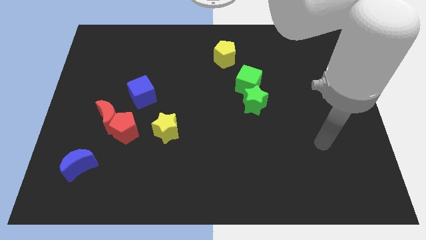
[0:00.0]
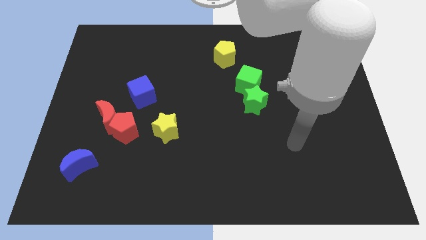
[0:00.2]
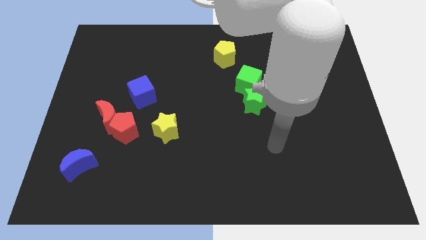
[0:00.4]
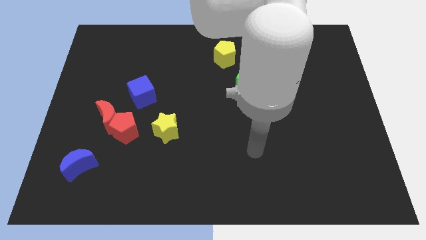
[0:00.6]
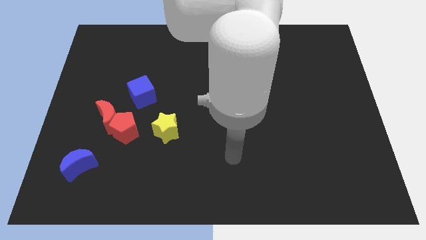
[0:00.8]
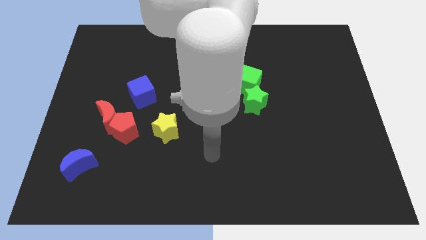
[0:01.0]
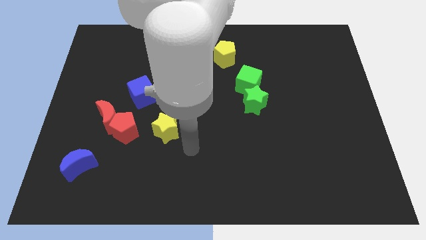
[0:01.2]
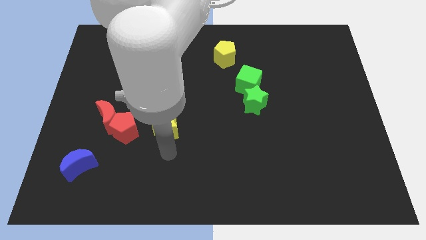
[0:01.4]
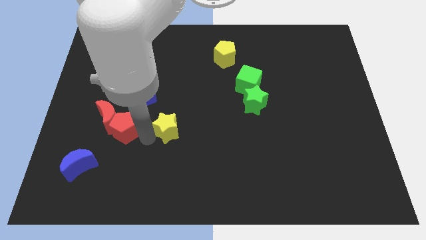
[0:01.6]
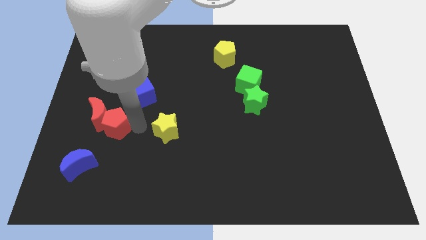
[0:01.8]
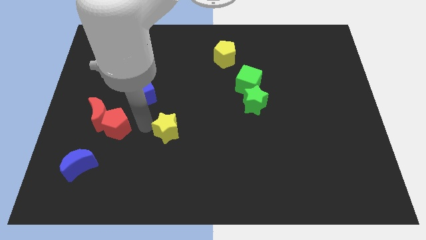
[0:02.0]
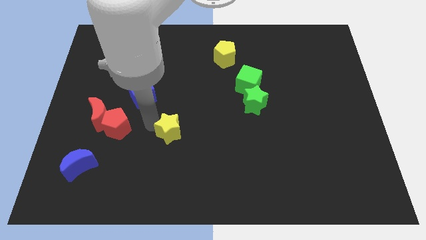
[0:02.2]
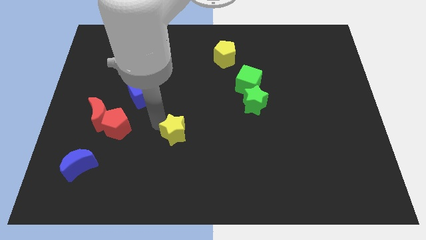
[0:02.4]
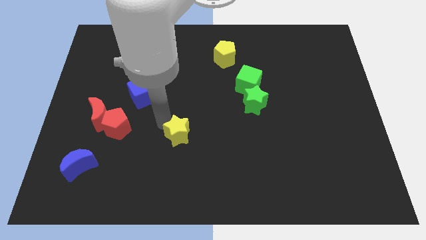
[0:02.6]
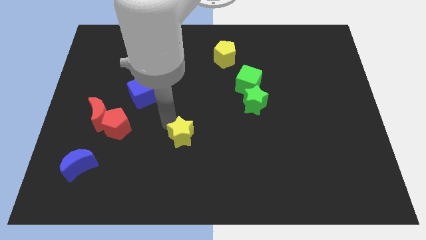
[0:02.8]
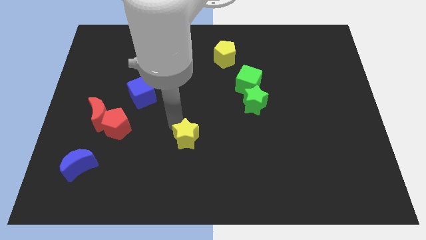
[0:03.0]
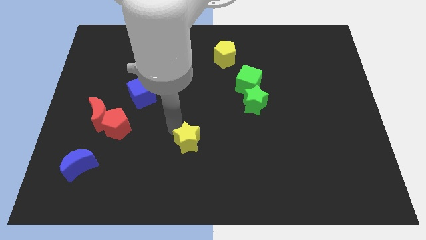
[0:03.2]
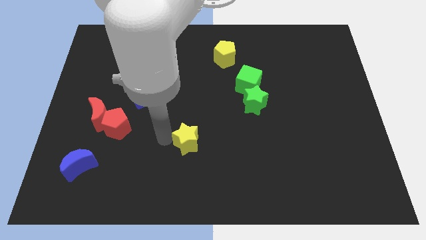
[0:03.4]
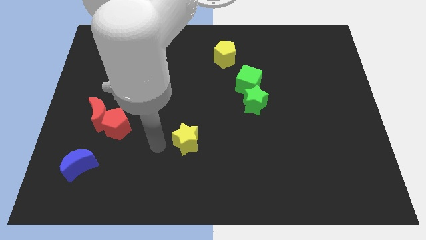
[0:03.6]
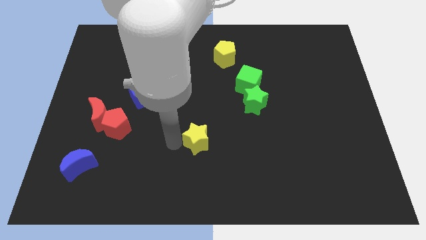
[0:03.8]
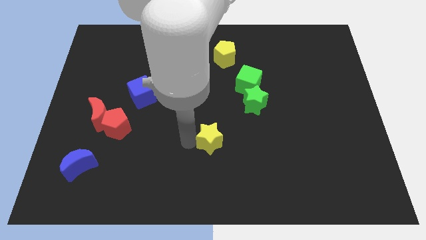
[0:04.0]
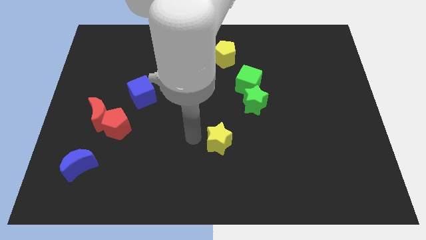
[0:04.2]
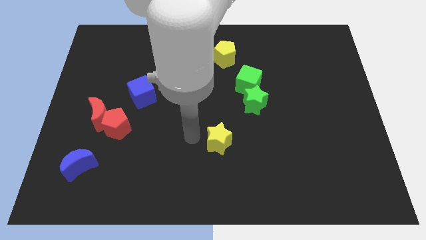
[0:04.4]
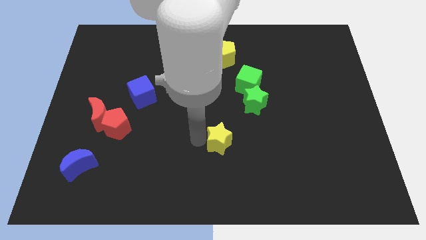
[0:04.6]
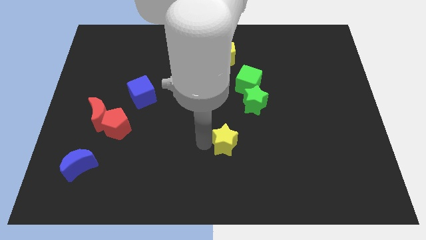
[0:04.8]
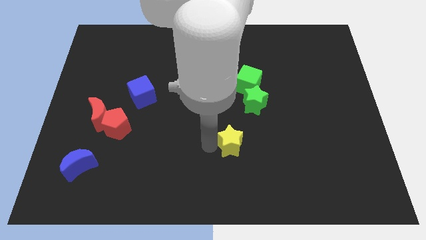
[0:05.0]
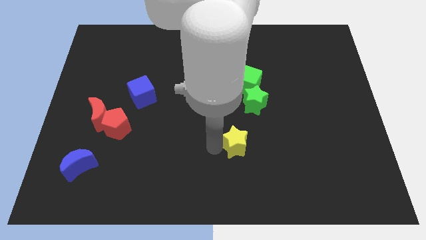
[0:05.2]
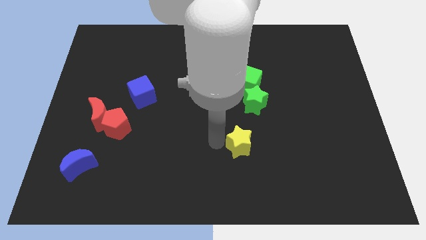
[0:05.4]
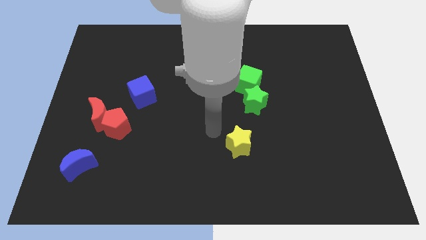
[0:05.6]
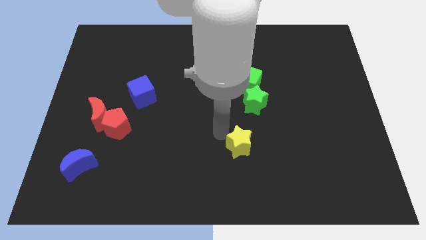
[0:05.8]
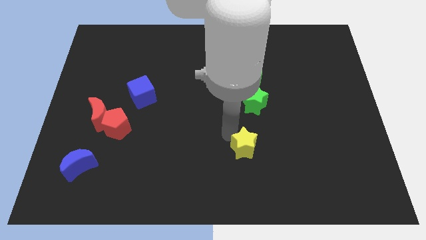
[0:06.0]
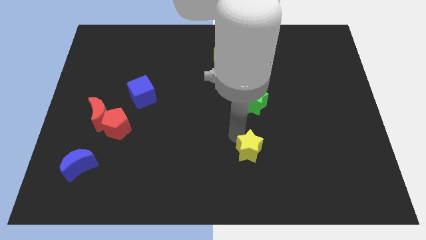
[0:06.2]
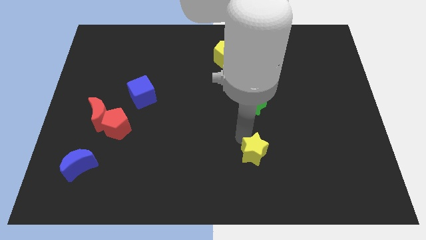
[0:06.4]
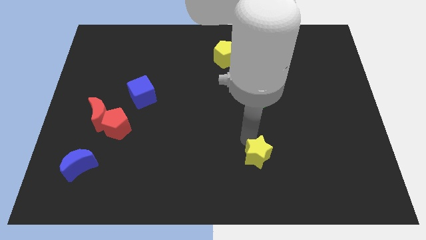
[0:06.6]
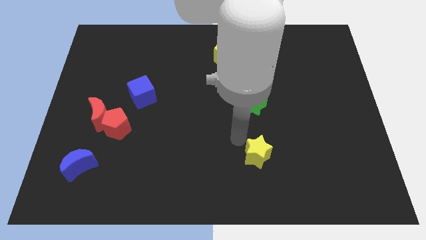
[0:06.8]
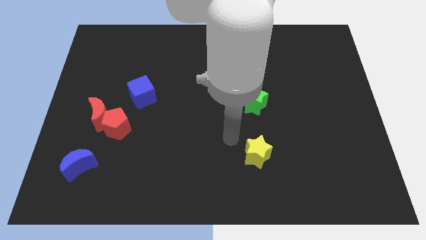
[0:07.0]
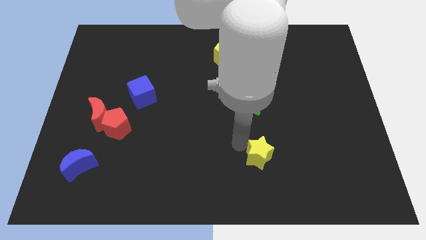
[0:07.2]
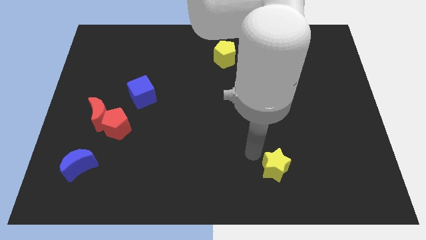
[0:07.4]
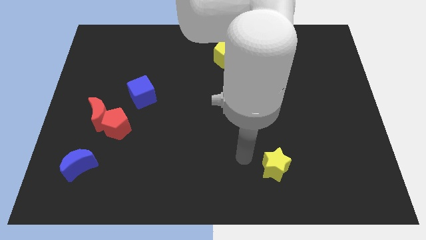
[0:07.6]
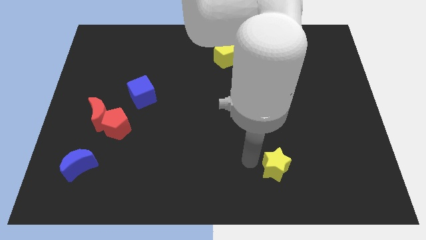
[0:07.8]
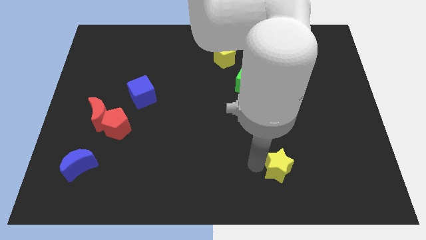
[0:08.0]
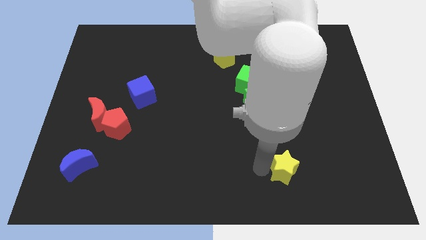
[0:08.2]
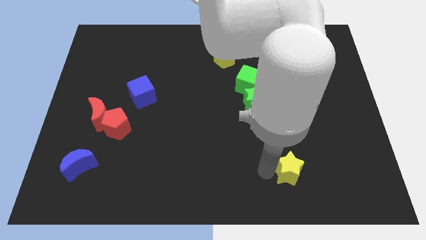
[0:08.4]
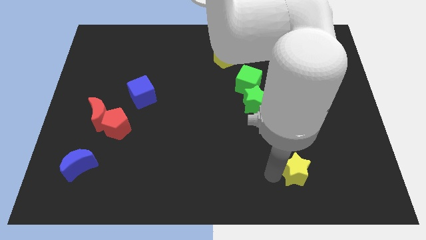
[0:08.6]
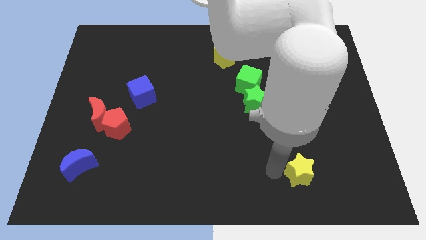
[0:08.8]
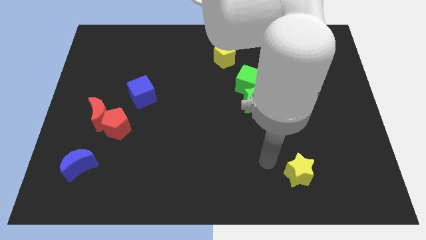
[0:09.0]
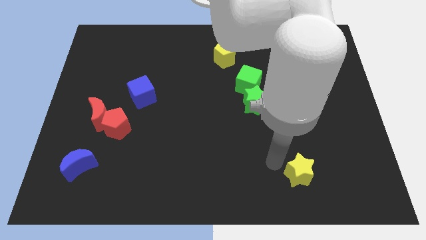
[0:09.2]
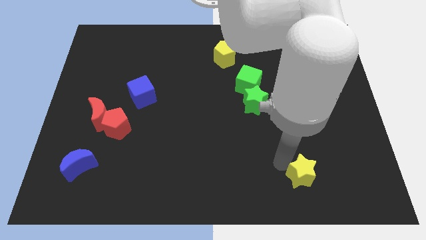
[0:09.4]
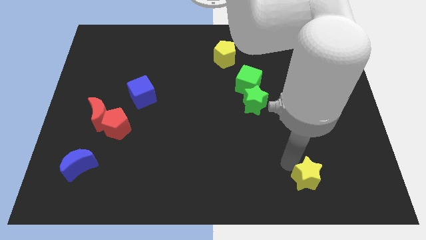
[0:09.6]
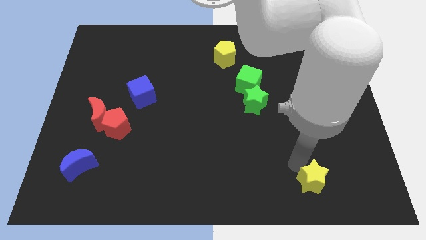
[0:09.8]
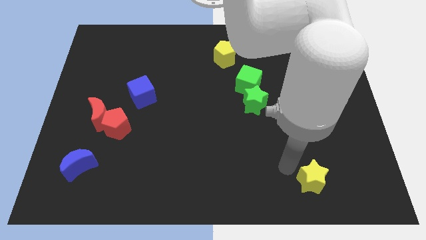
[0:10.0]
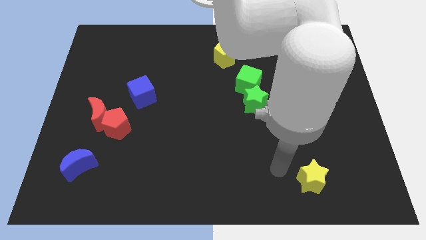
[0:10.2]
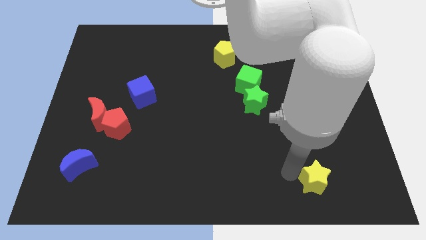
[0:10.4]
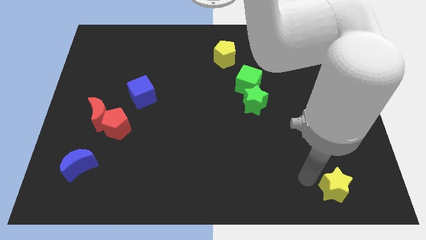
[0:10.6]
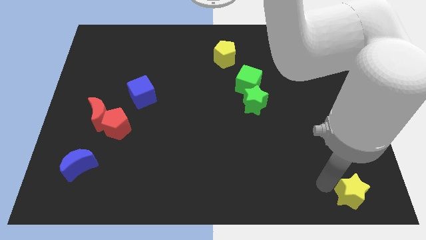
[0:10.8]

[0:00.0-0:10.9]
move the yellow star to the lower right corner

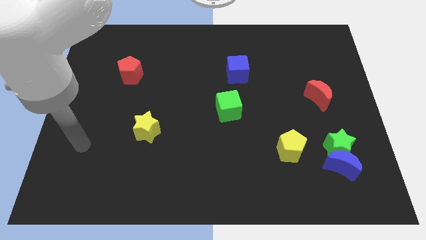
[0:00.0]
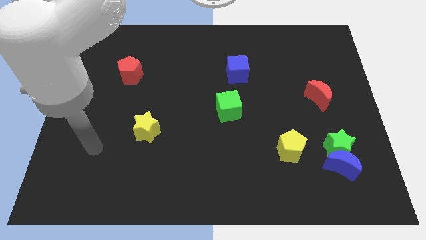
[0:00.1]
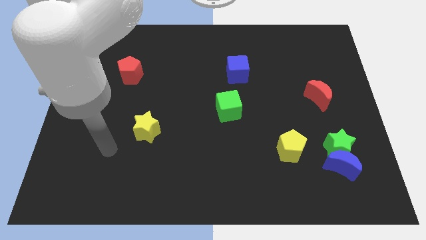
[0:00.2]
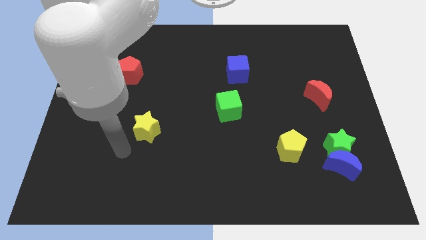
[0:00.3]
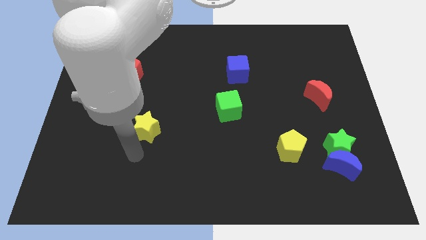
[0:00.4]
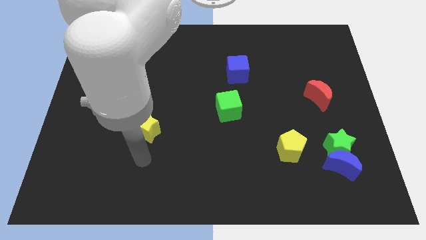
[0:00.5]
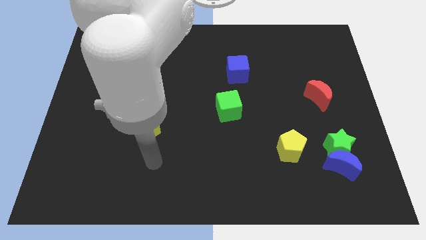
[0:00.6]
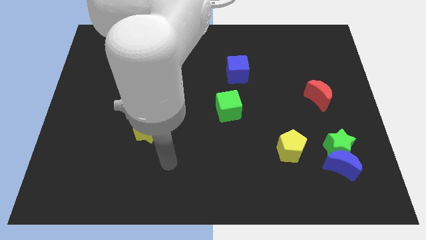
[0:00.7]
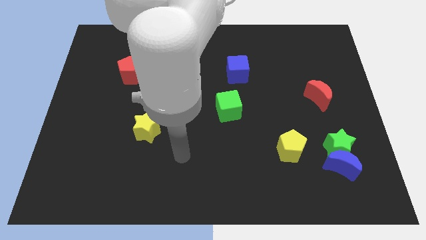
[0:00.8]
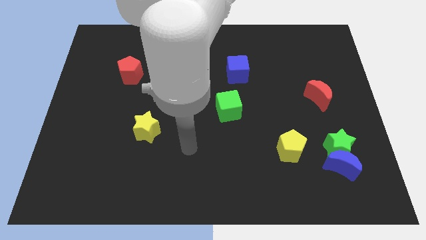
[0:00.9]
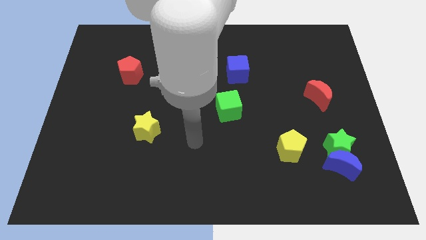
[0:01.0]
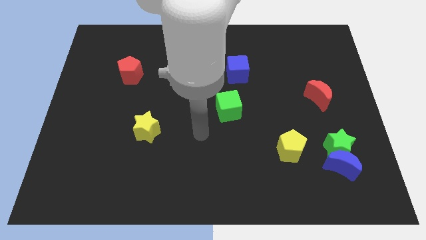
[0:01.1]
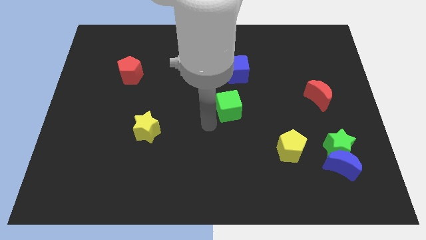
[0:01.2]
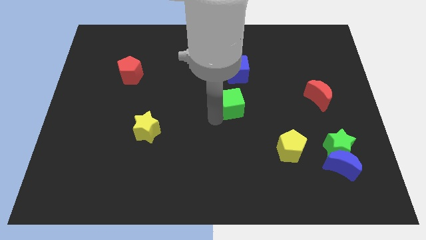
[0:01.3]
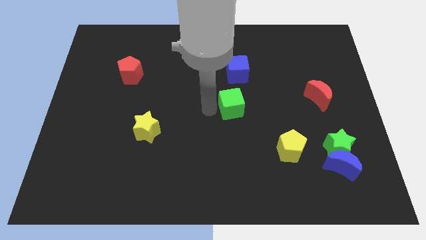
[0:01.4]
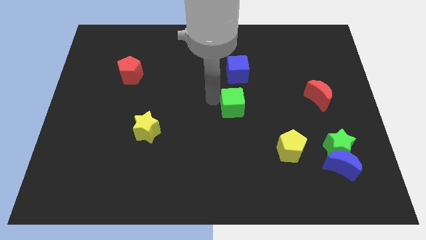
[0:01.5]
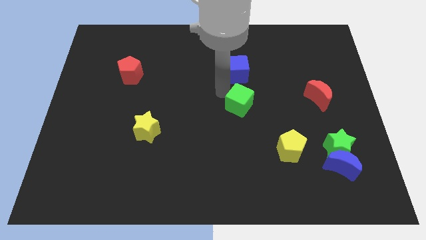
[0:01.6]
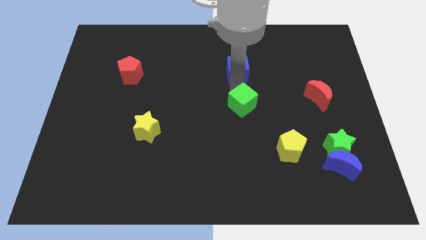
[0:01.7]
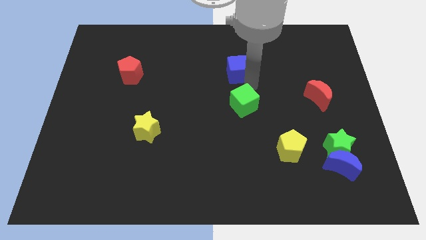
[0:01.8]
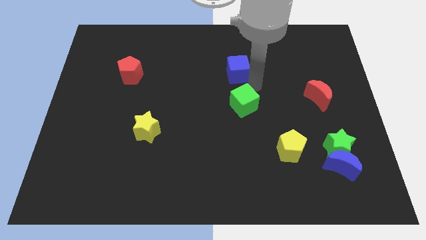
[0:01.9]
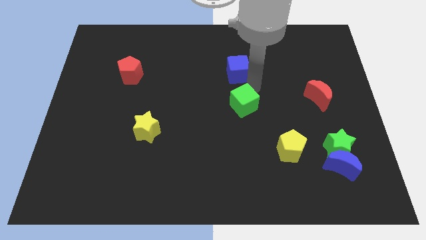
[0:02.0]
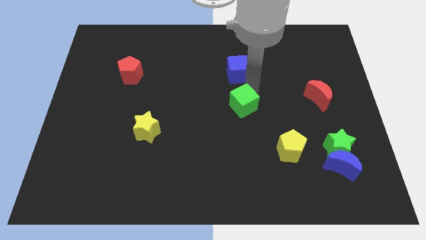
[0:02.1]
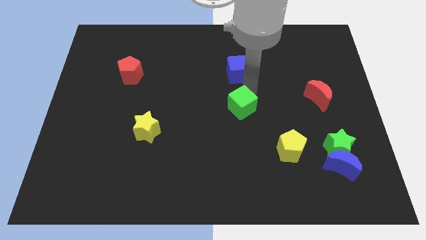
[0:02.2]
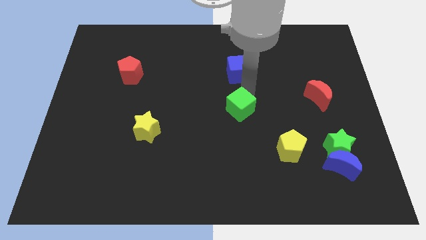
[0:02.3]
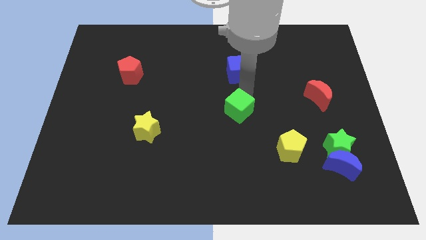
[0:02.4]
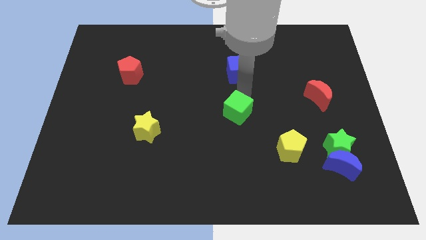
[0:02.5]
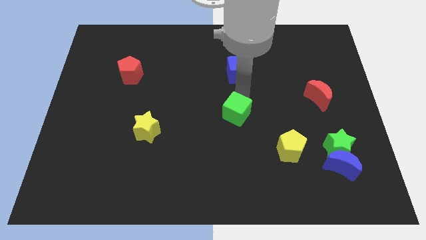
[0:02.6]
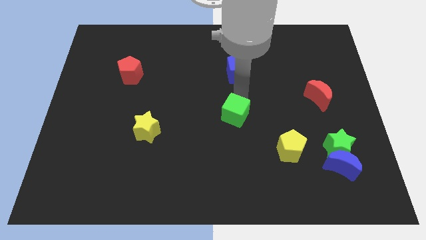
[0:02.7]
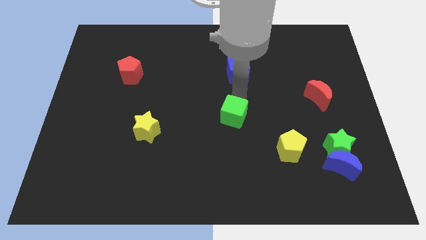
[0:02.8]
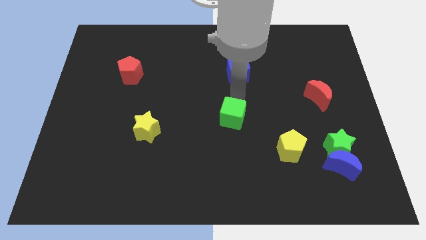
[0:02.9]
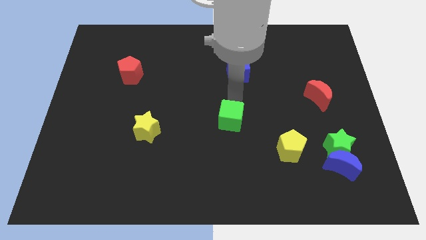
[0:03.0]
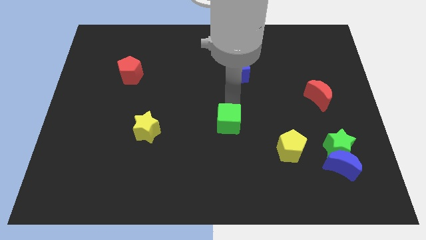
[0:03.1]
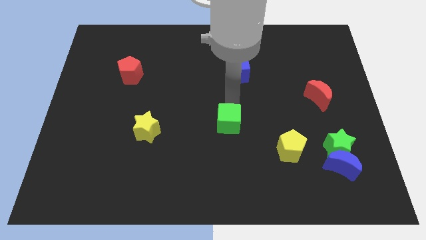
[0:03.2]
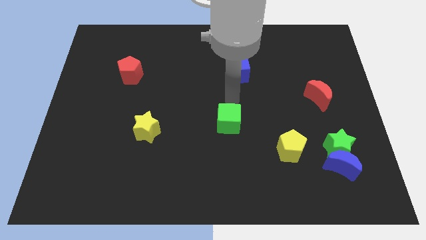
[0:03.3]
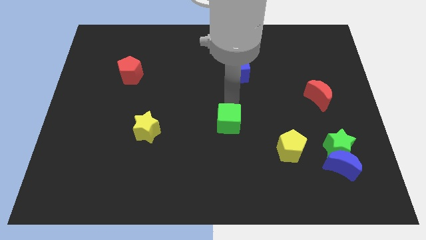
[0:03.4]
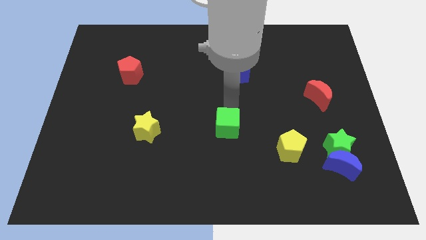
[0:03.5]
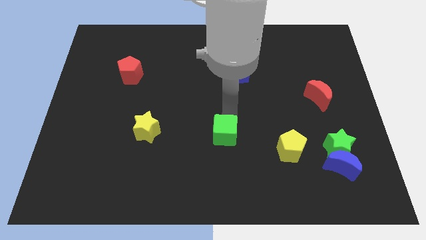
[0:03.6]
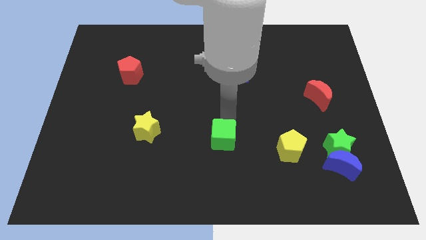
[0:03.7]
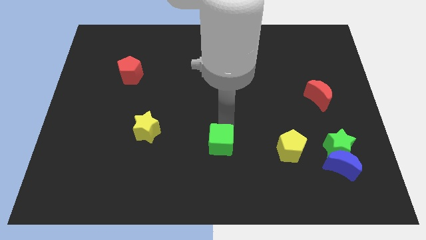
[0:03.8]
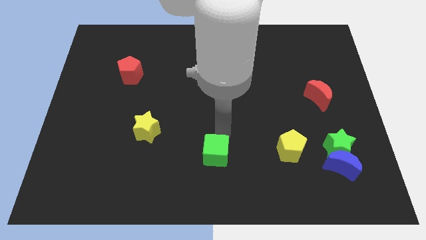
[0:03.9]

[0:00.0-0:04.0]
move the green cube to the bottom
